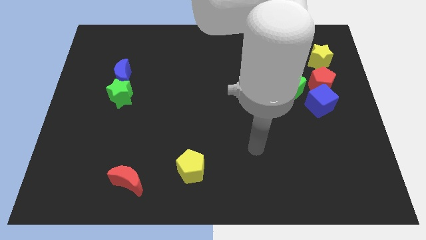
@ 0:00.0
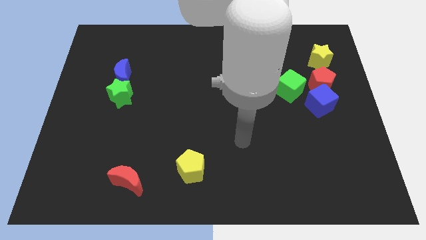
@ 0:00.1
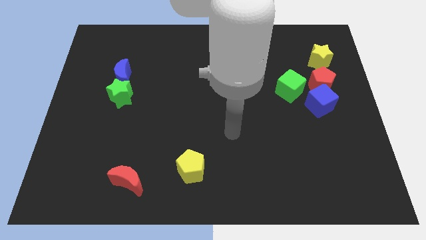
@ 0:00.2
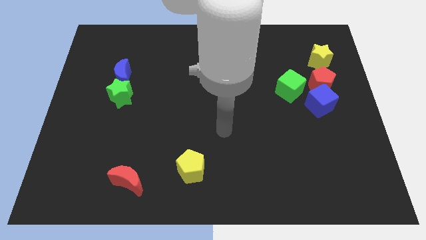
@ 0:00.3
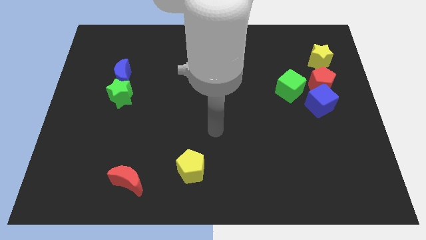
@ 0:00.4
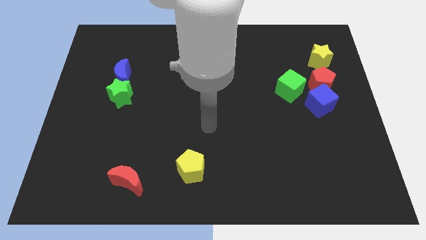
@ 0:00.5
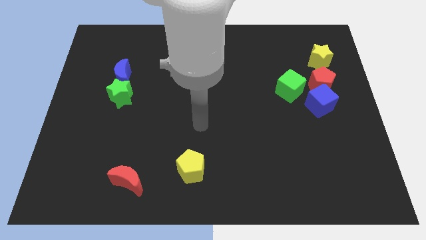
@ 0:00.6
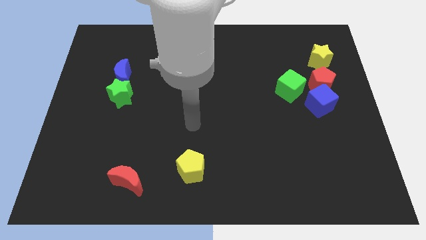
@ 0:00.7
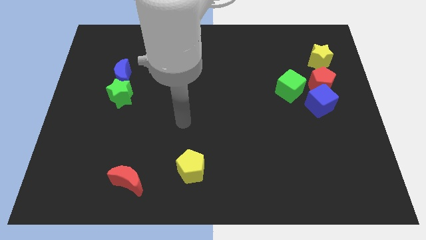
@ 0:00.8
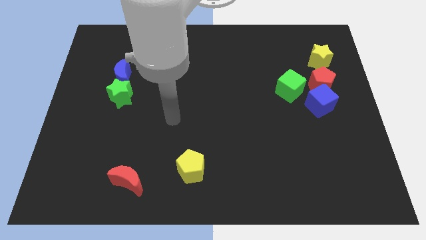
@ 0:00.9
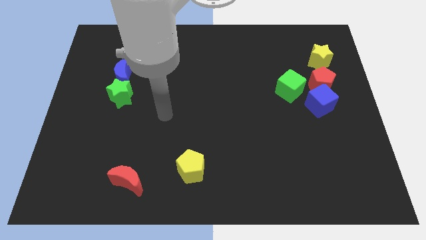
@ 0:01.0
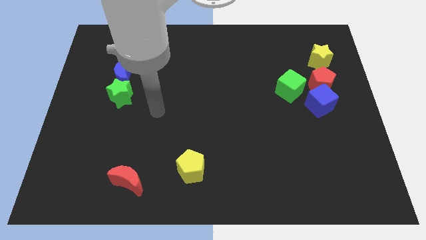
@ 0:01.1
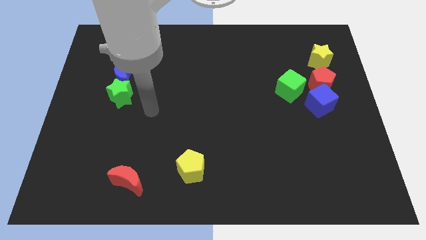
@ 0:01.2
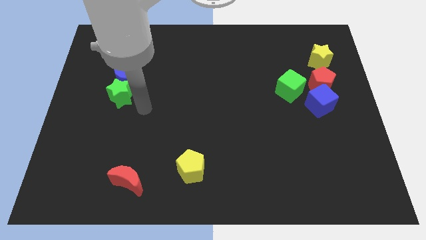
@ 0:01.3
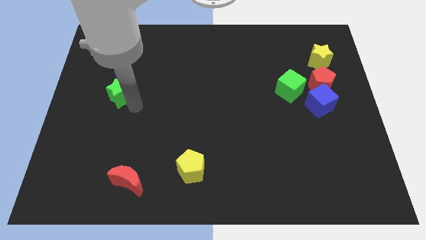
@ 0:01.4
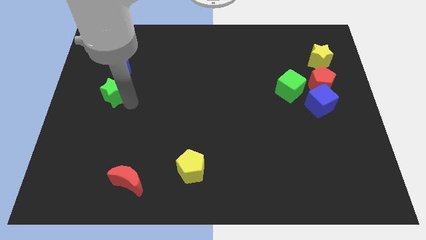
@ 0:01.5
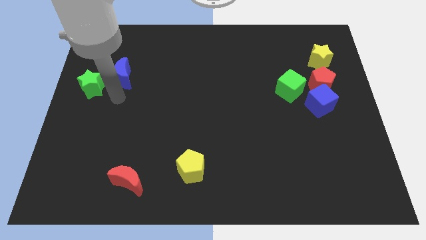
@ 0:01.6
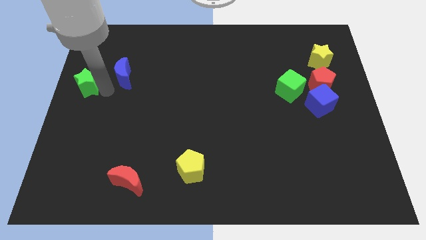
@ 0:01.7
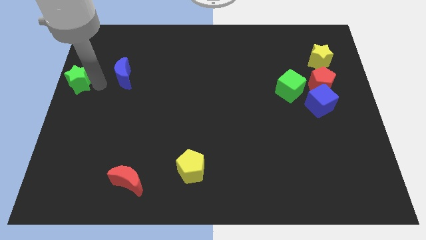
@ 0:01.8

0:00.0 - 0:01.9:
move the blue moon away from the green star

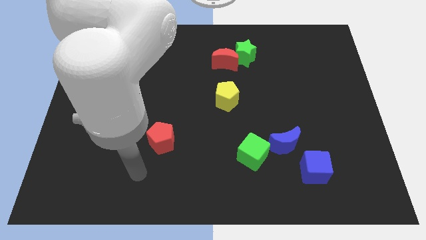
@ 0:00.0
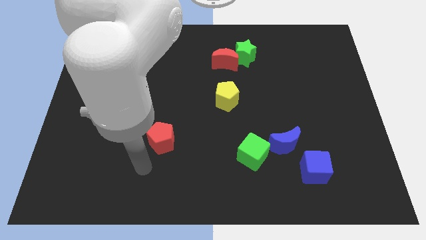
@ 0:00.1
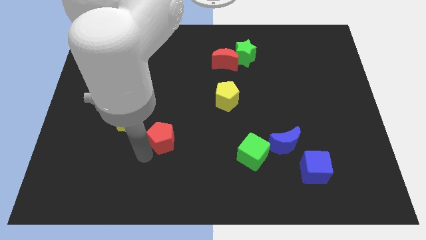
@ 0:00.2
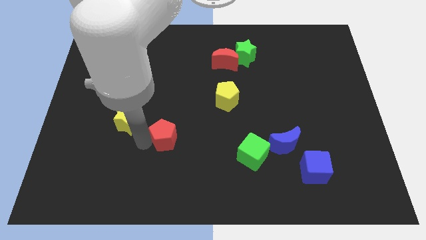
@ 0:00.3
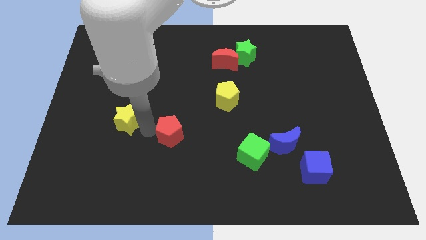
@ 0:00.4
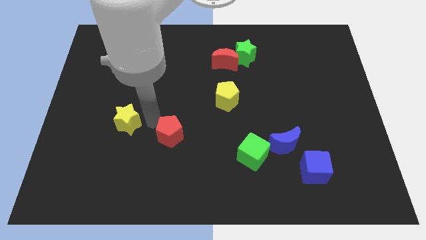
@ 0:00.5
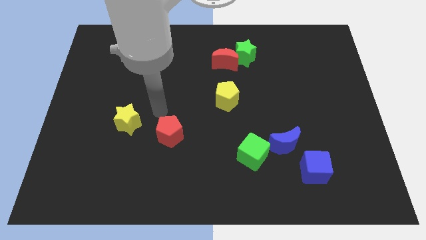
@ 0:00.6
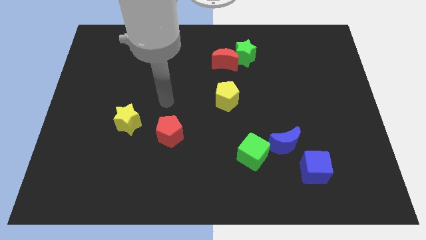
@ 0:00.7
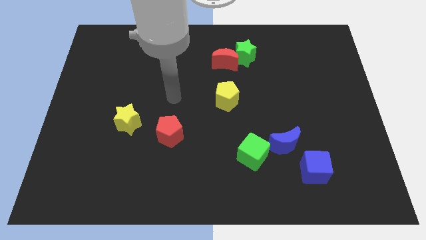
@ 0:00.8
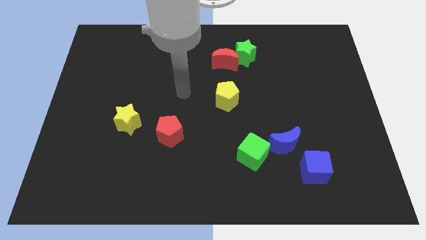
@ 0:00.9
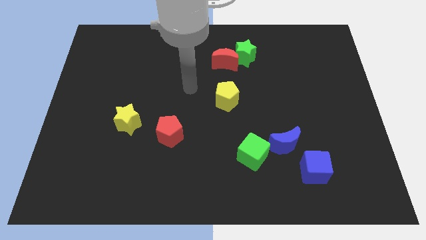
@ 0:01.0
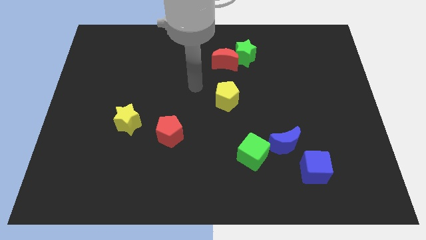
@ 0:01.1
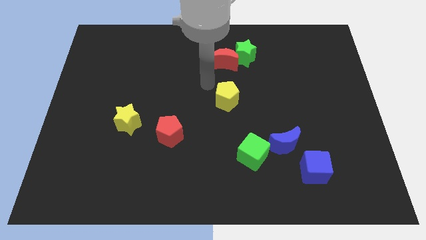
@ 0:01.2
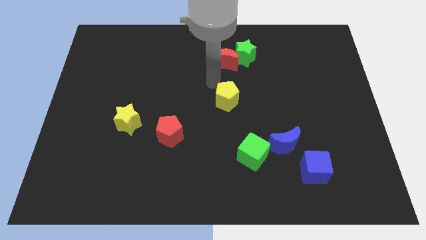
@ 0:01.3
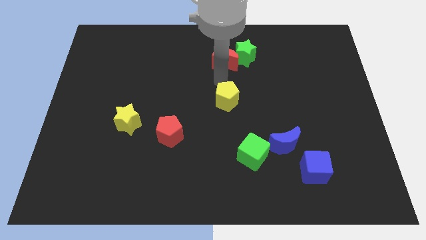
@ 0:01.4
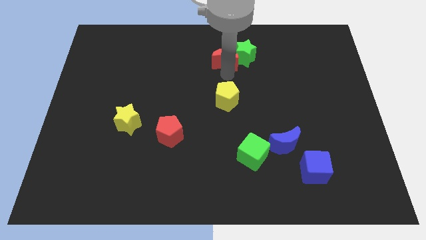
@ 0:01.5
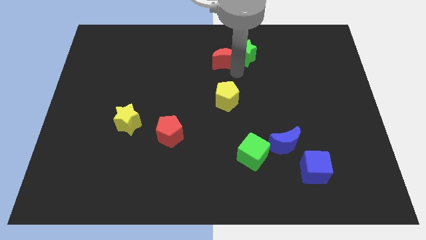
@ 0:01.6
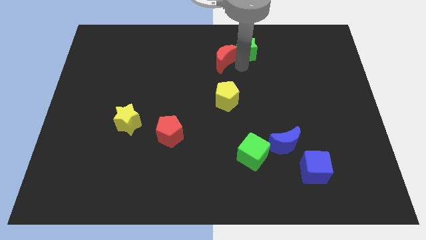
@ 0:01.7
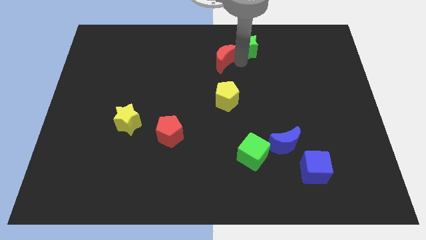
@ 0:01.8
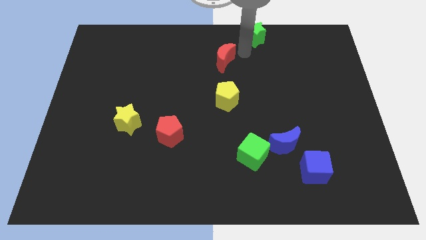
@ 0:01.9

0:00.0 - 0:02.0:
move the red moon away from the green star

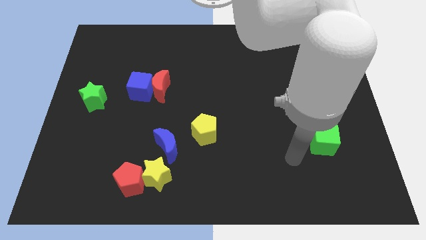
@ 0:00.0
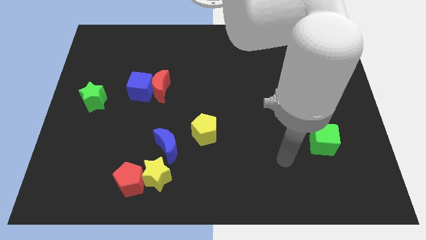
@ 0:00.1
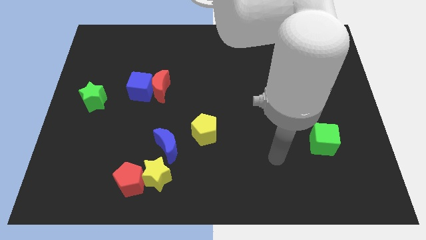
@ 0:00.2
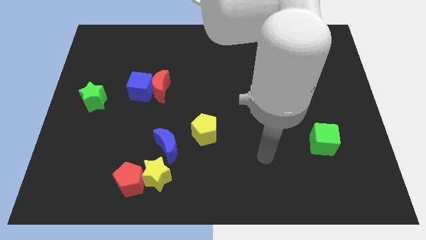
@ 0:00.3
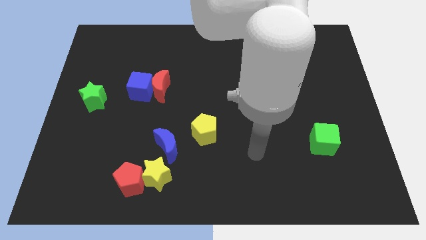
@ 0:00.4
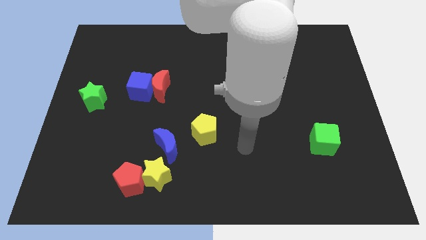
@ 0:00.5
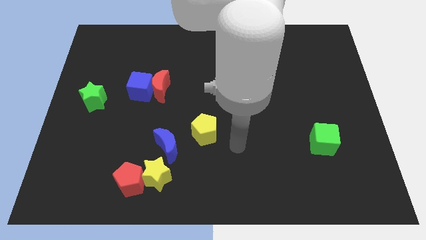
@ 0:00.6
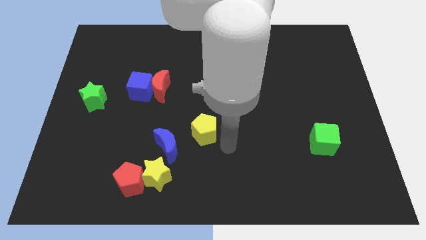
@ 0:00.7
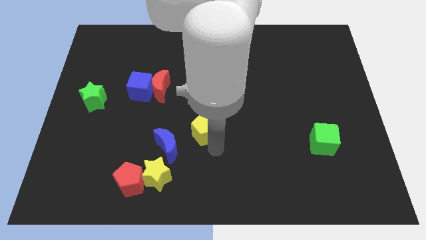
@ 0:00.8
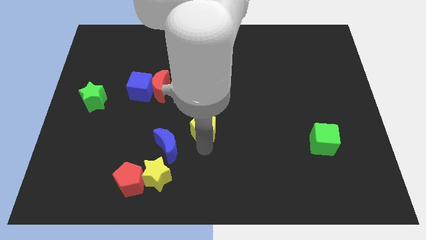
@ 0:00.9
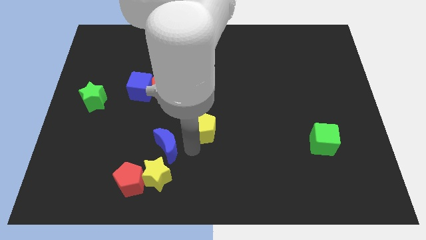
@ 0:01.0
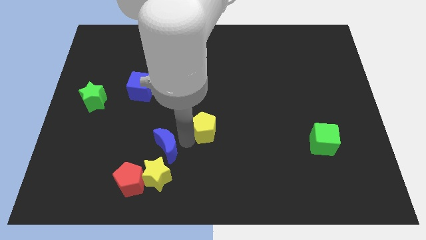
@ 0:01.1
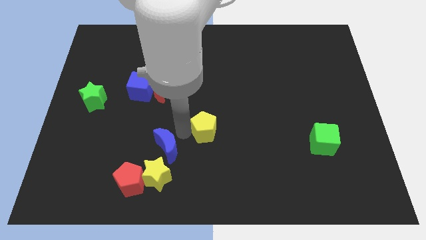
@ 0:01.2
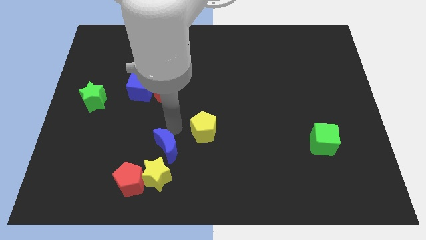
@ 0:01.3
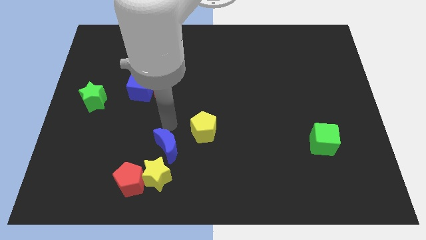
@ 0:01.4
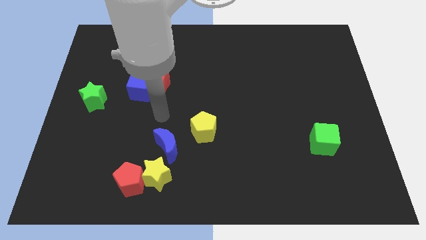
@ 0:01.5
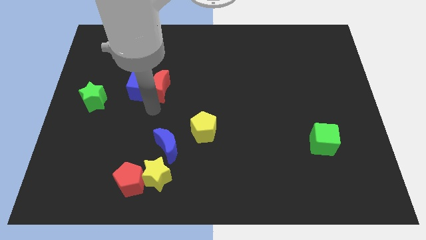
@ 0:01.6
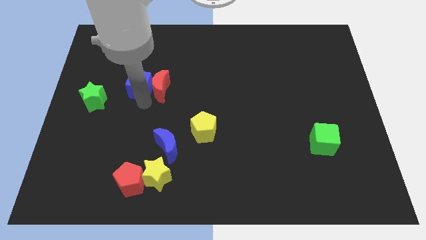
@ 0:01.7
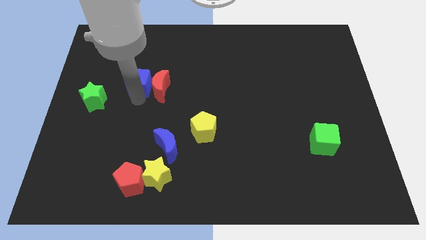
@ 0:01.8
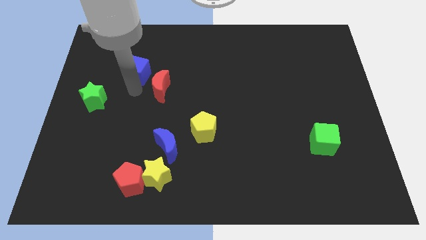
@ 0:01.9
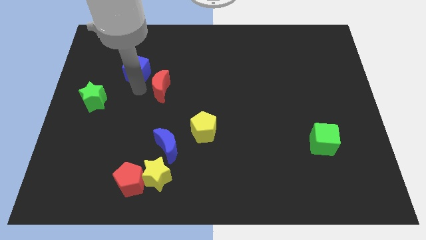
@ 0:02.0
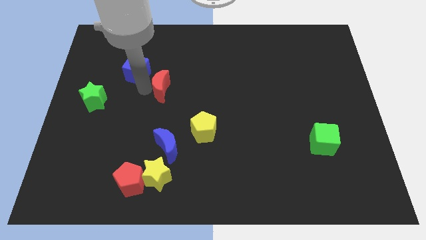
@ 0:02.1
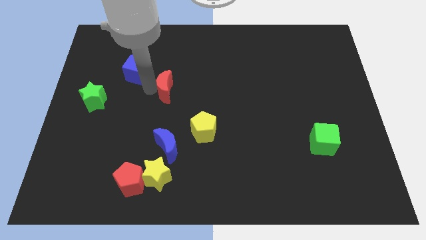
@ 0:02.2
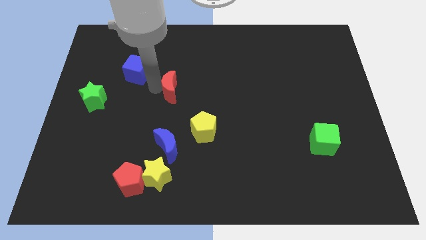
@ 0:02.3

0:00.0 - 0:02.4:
pull the red moon apart from the blue cube

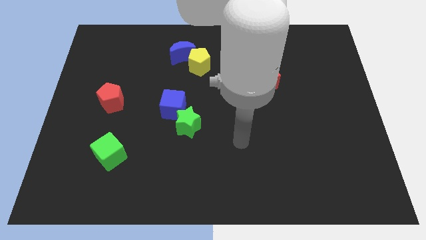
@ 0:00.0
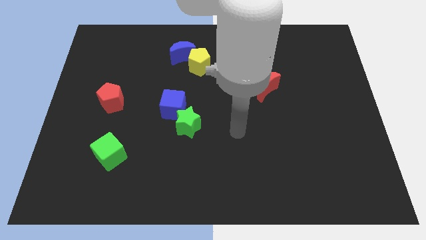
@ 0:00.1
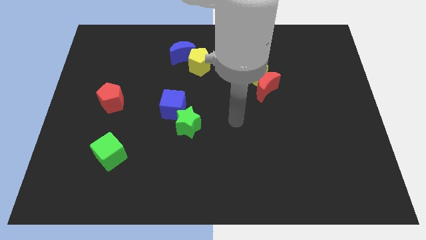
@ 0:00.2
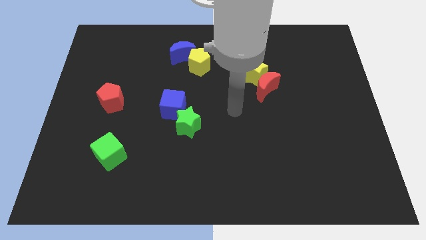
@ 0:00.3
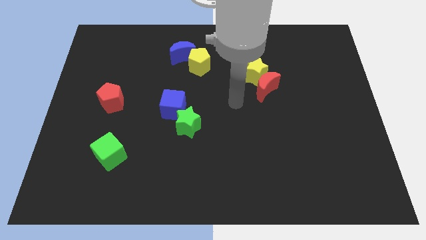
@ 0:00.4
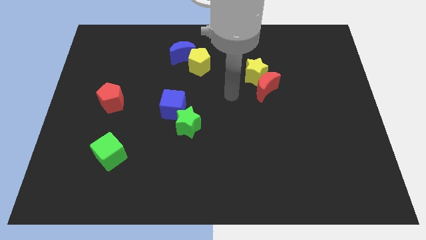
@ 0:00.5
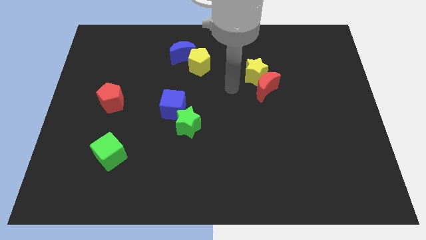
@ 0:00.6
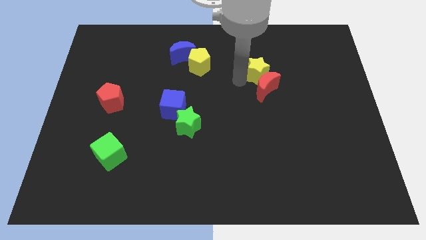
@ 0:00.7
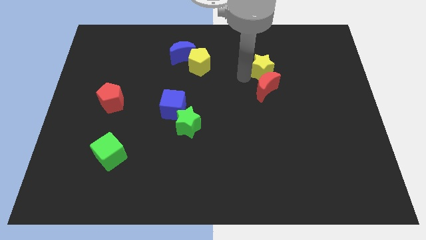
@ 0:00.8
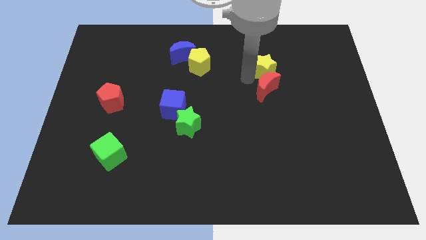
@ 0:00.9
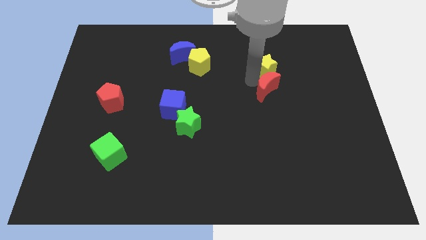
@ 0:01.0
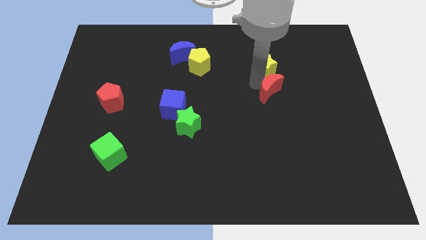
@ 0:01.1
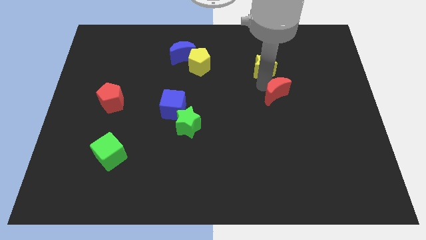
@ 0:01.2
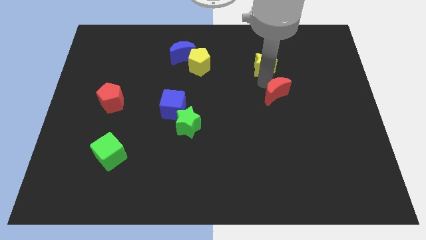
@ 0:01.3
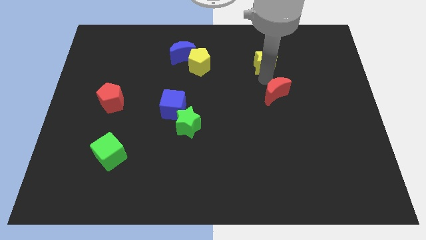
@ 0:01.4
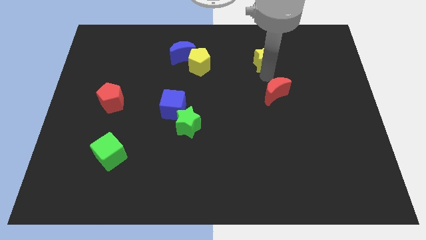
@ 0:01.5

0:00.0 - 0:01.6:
move the red moon away from the yellow star

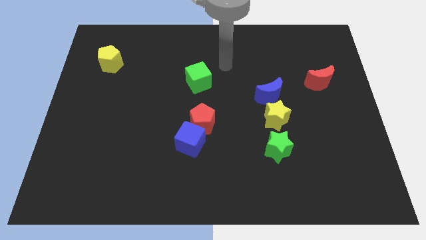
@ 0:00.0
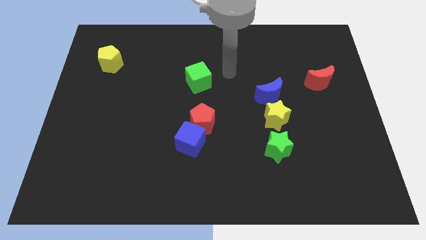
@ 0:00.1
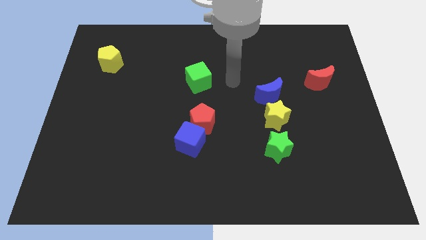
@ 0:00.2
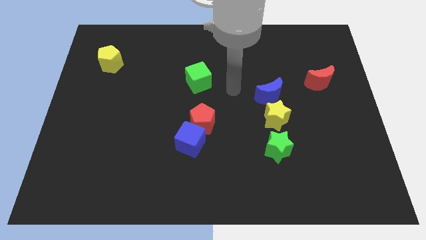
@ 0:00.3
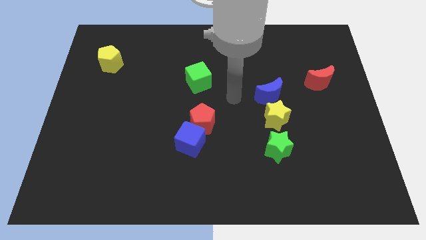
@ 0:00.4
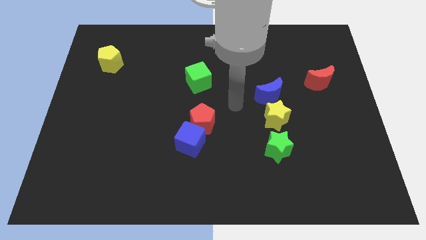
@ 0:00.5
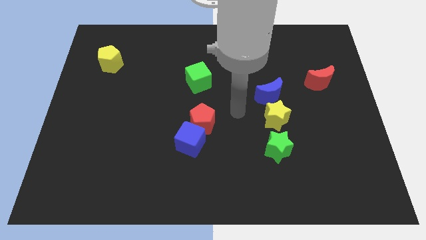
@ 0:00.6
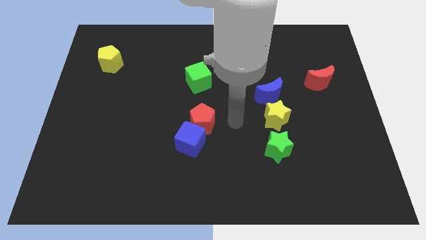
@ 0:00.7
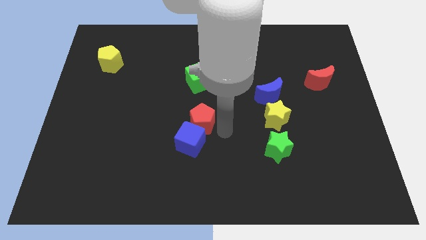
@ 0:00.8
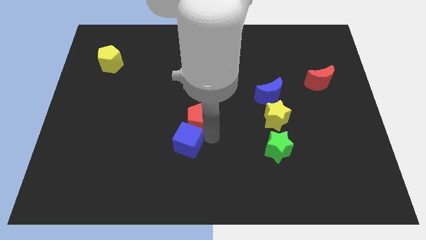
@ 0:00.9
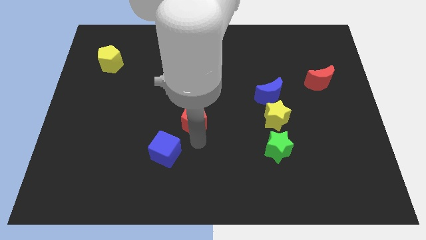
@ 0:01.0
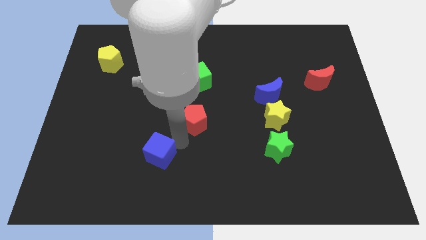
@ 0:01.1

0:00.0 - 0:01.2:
pull the red pentagon apart from the blue cube

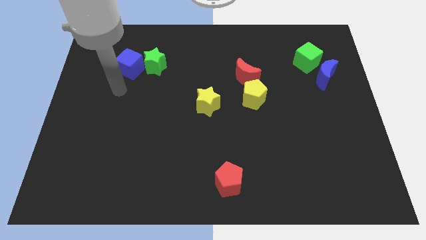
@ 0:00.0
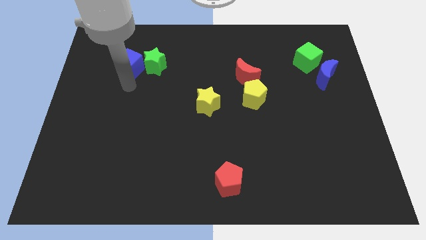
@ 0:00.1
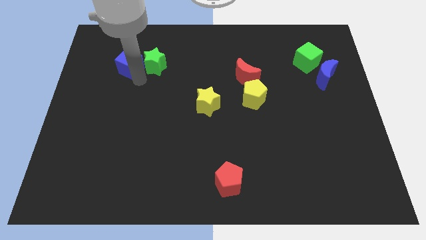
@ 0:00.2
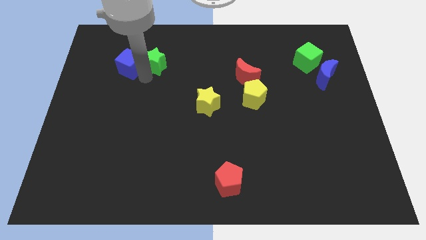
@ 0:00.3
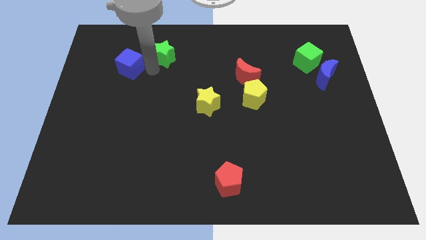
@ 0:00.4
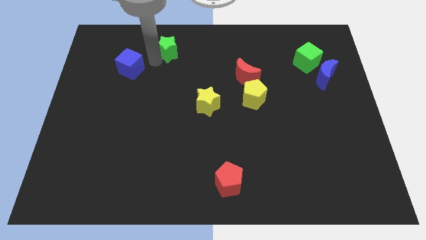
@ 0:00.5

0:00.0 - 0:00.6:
pull the blue cube apart from the green star
